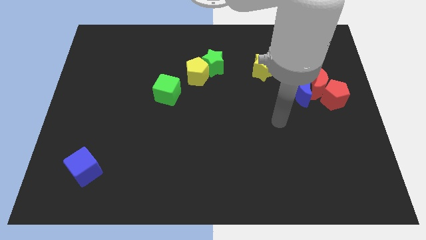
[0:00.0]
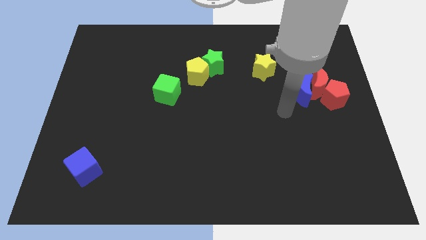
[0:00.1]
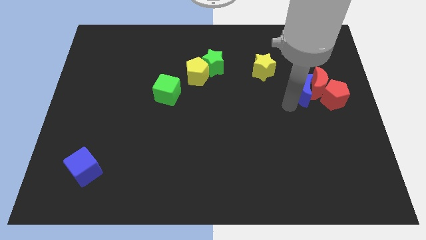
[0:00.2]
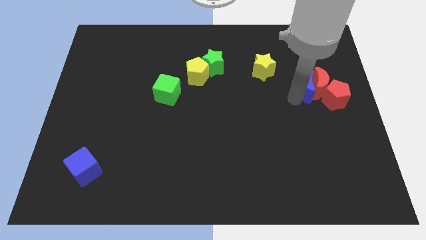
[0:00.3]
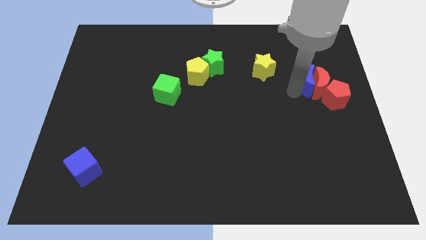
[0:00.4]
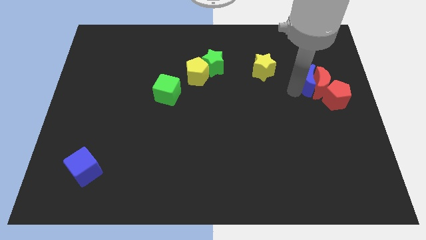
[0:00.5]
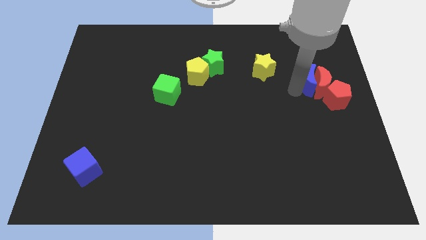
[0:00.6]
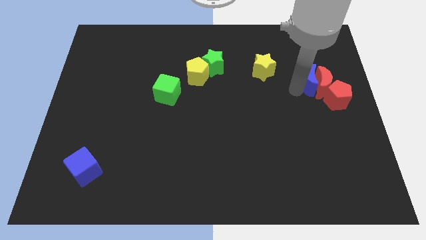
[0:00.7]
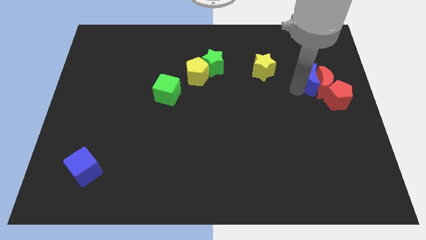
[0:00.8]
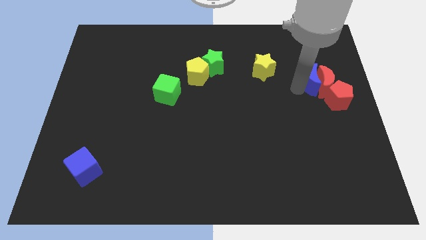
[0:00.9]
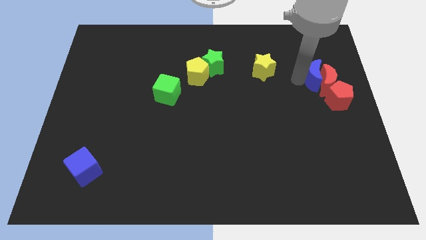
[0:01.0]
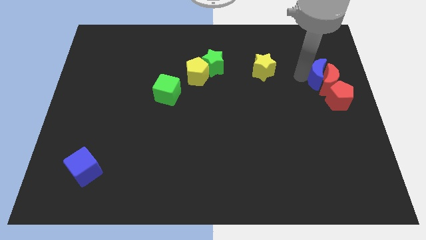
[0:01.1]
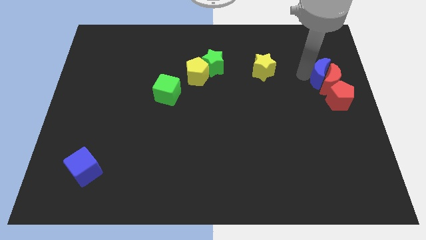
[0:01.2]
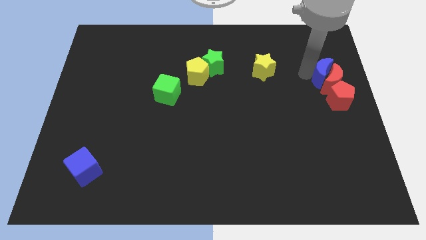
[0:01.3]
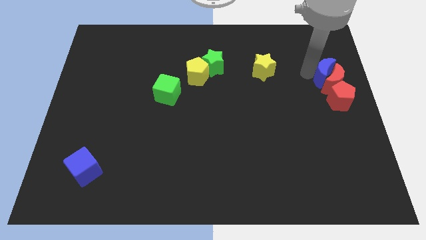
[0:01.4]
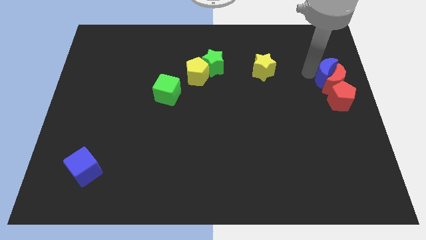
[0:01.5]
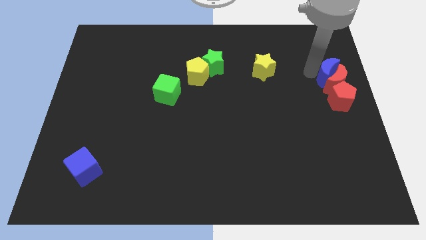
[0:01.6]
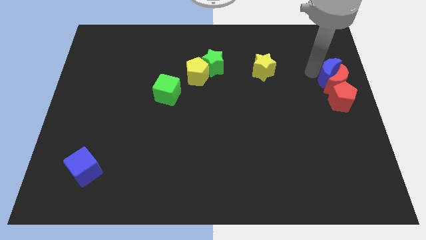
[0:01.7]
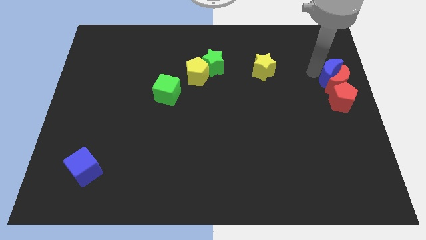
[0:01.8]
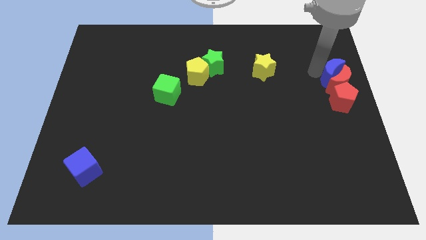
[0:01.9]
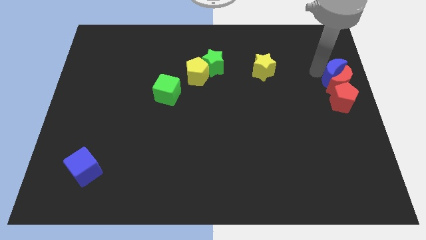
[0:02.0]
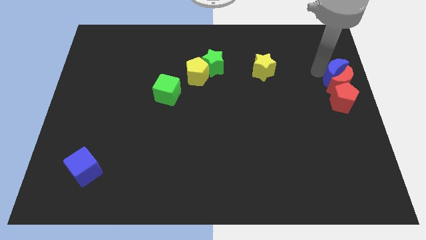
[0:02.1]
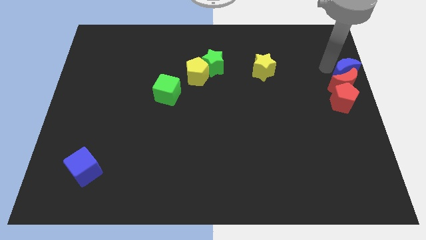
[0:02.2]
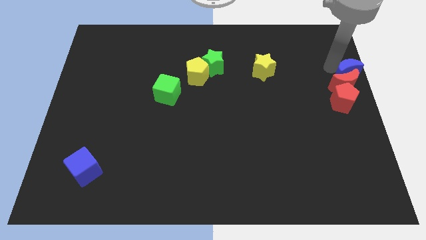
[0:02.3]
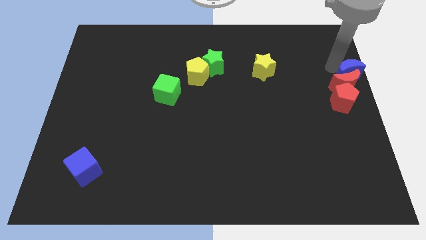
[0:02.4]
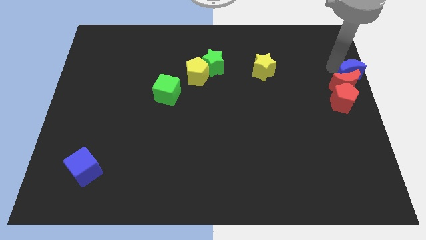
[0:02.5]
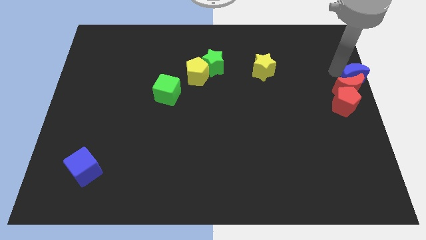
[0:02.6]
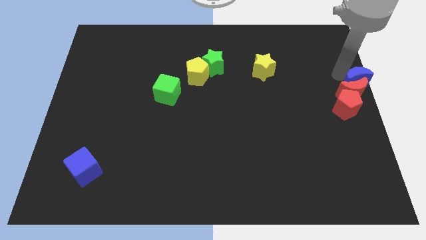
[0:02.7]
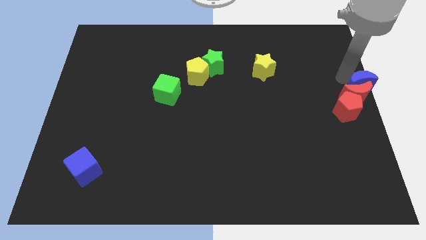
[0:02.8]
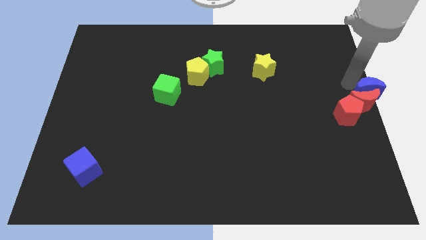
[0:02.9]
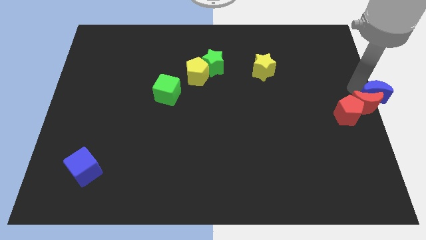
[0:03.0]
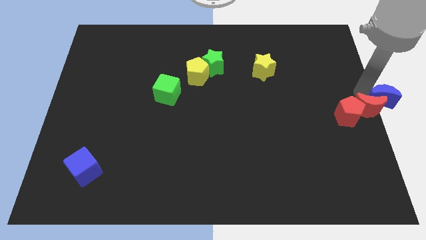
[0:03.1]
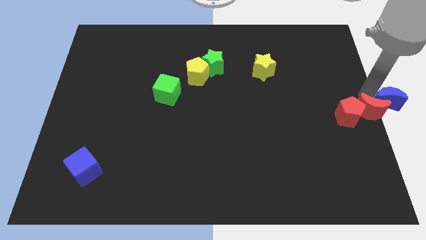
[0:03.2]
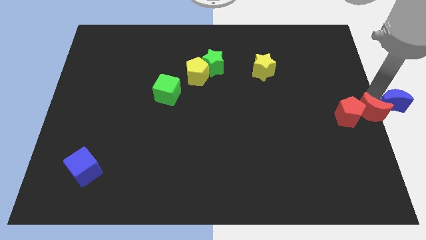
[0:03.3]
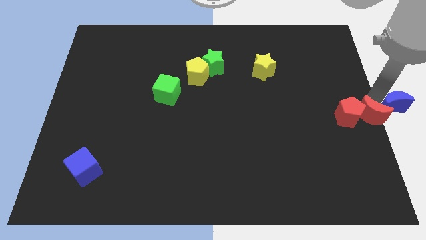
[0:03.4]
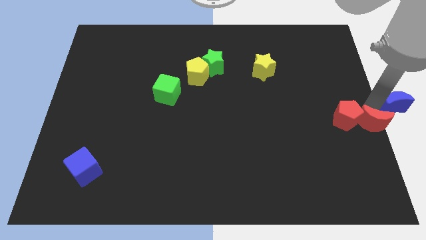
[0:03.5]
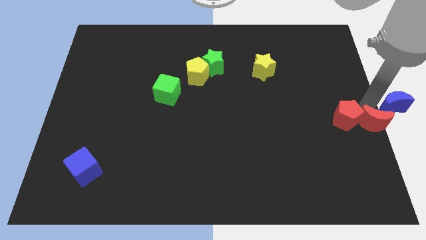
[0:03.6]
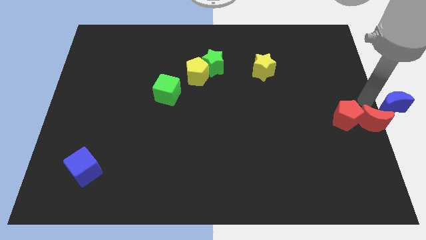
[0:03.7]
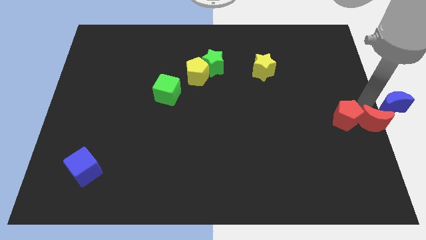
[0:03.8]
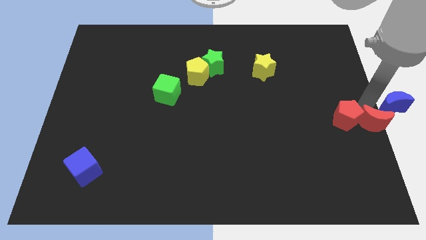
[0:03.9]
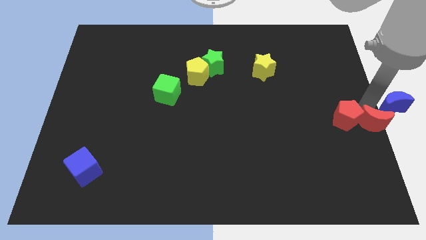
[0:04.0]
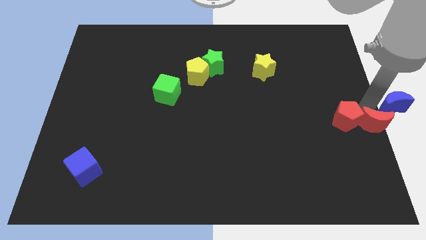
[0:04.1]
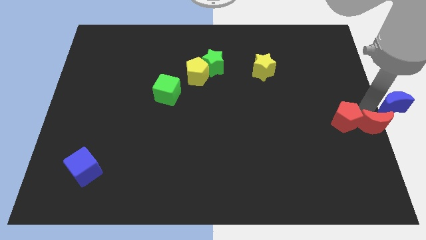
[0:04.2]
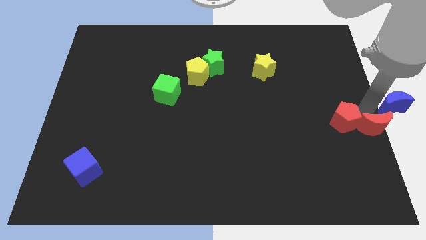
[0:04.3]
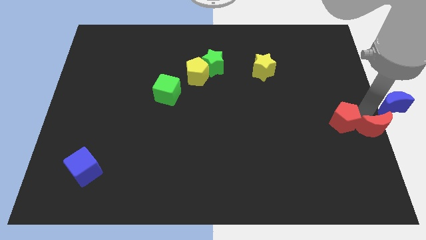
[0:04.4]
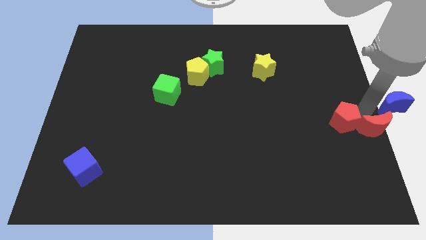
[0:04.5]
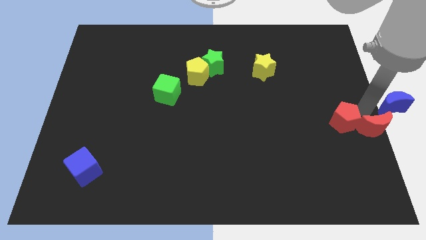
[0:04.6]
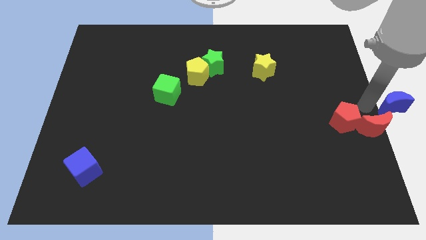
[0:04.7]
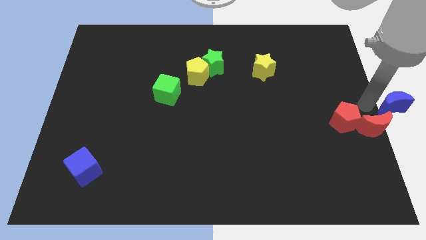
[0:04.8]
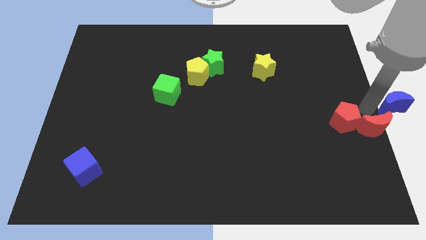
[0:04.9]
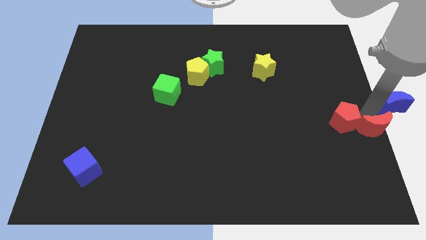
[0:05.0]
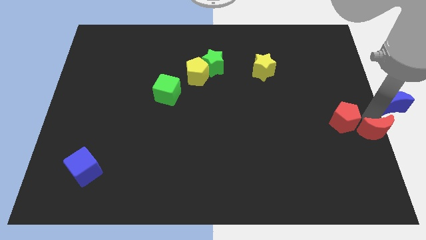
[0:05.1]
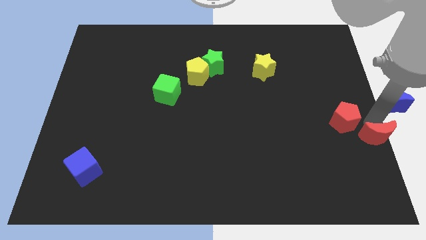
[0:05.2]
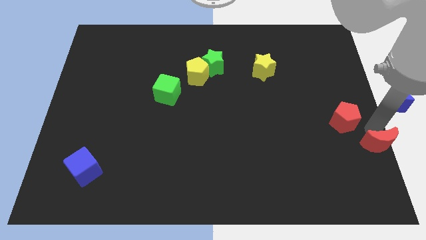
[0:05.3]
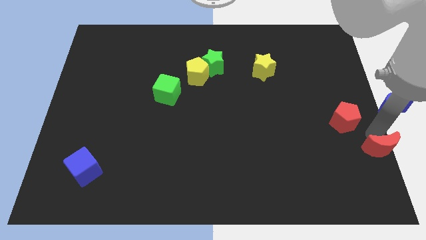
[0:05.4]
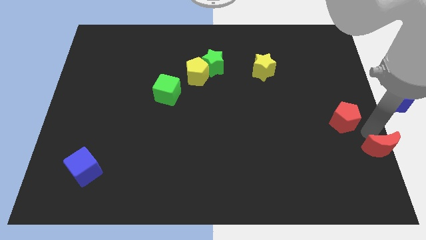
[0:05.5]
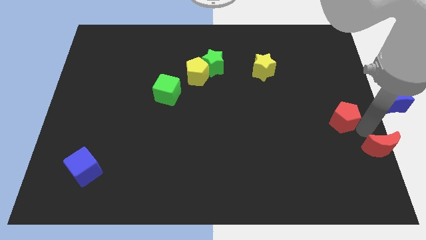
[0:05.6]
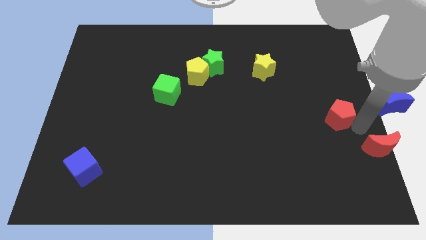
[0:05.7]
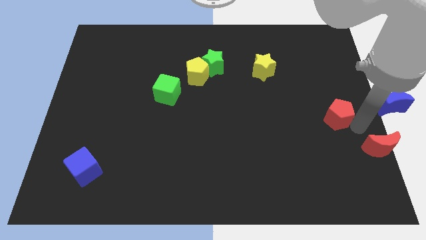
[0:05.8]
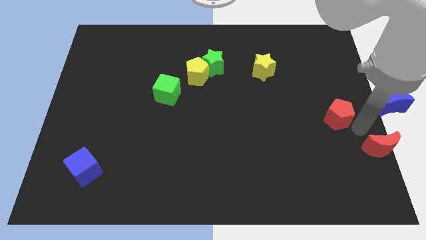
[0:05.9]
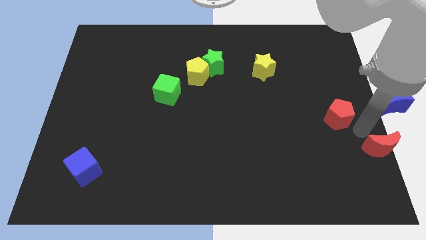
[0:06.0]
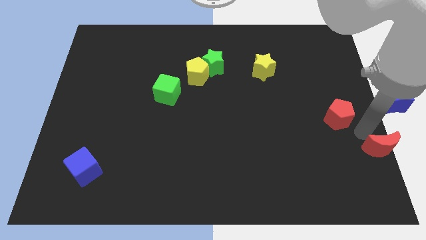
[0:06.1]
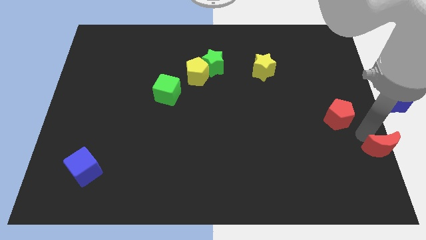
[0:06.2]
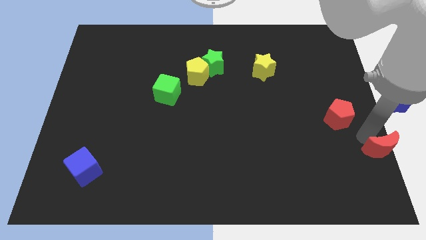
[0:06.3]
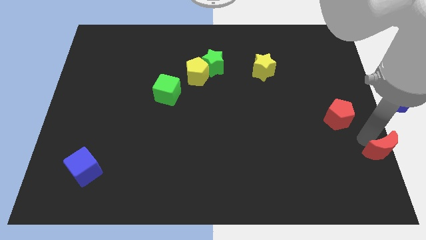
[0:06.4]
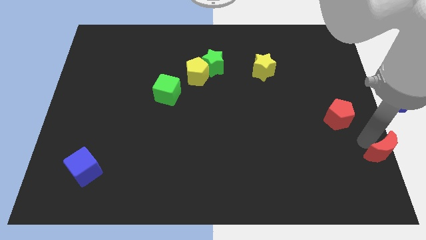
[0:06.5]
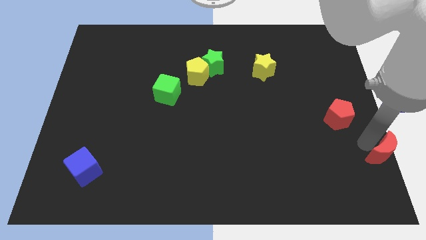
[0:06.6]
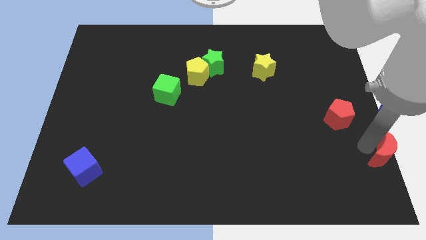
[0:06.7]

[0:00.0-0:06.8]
move the red moon to the bottom right of the board

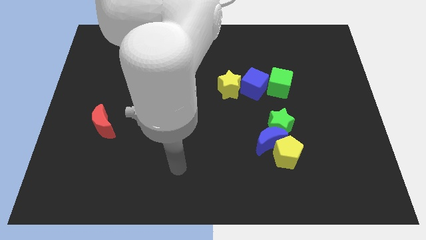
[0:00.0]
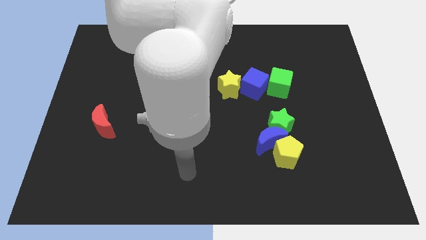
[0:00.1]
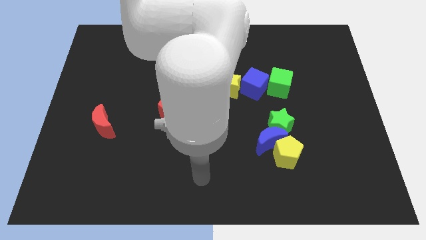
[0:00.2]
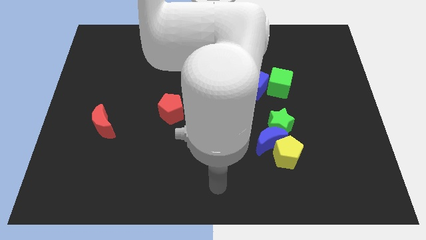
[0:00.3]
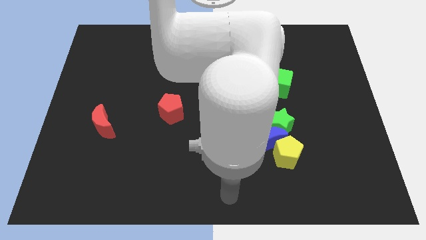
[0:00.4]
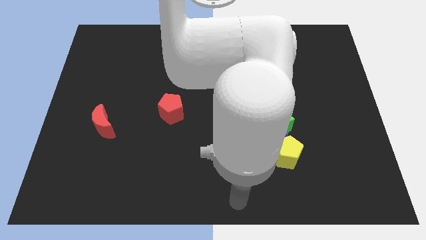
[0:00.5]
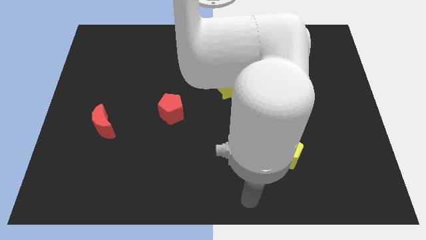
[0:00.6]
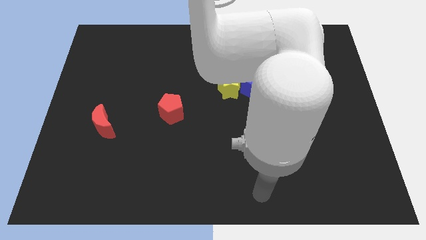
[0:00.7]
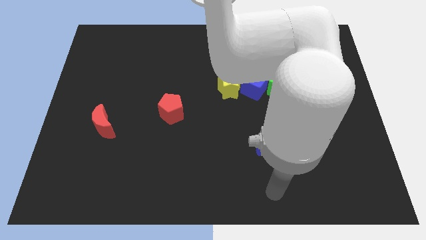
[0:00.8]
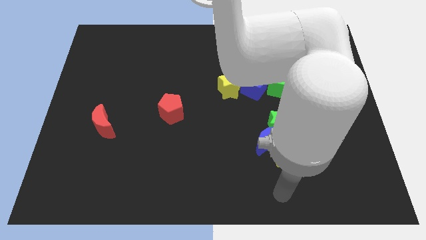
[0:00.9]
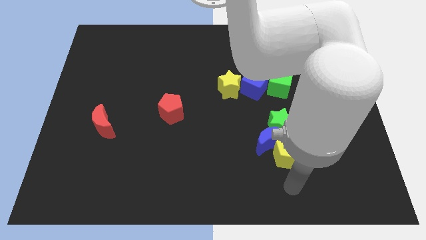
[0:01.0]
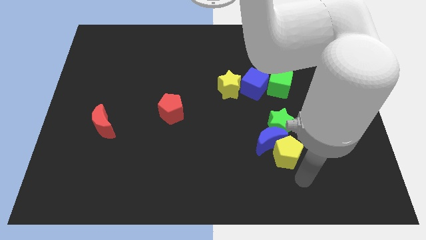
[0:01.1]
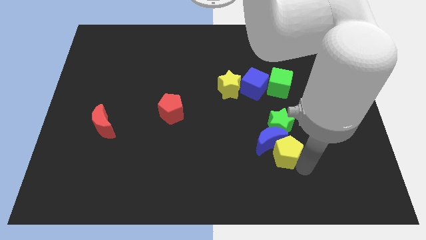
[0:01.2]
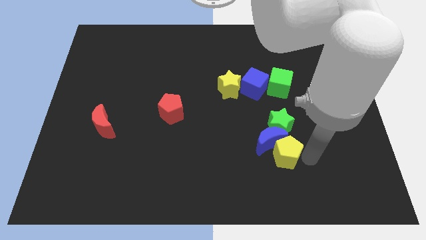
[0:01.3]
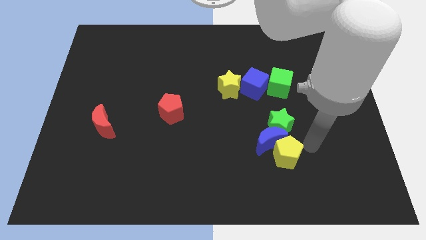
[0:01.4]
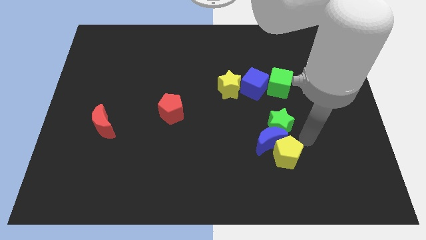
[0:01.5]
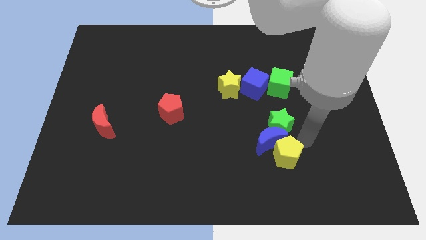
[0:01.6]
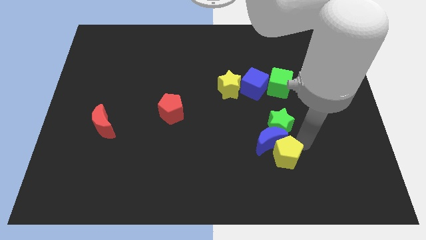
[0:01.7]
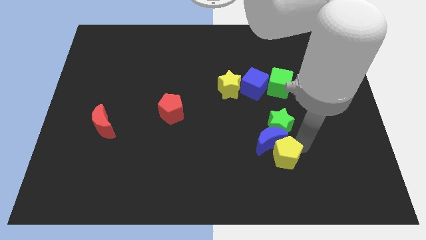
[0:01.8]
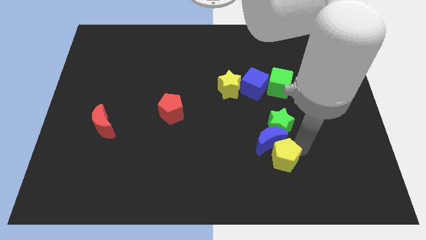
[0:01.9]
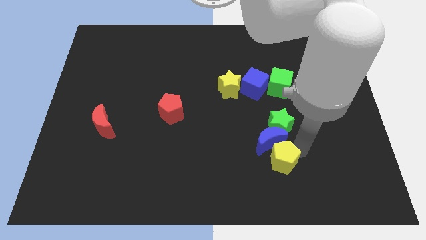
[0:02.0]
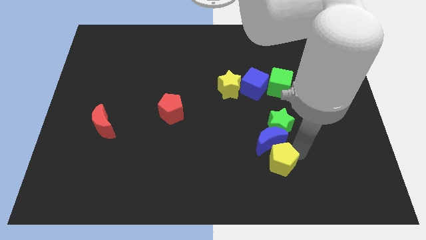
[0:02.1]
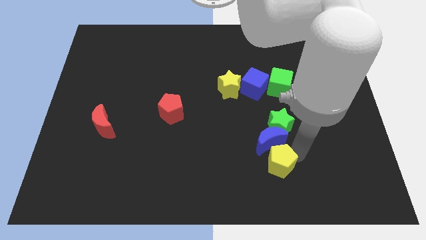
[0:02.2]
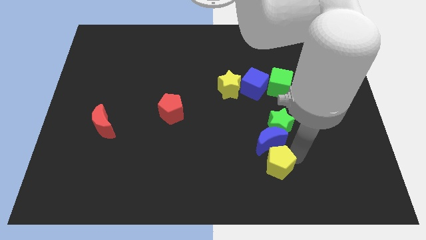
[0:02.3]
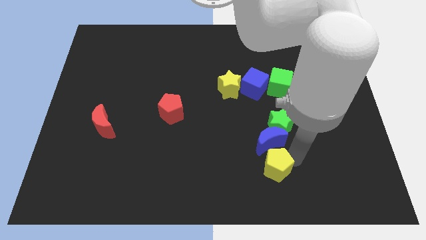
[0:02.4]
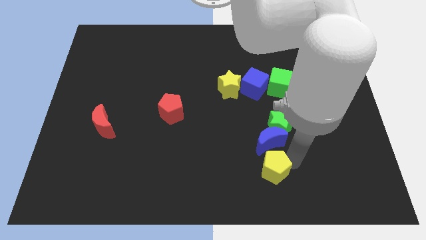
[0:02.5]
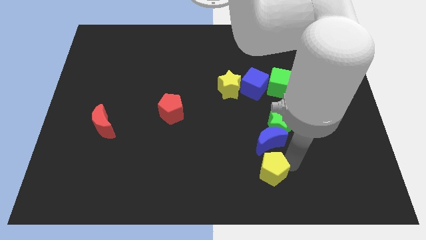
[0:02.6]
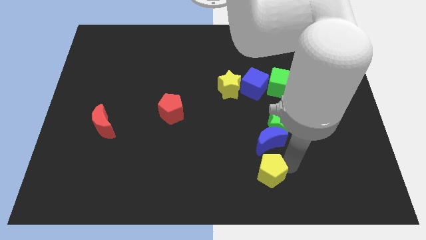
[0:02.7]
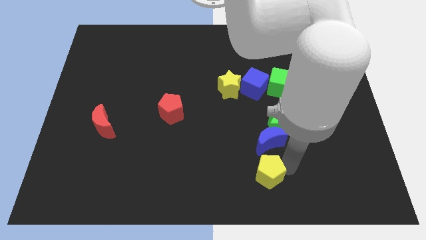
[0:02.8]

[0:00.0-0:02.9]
put the yellow pentagon to the bottom side
